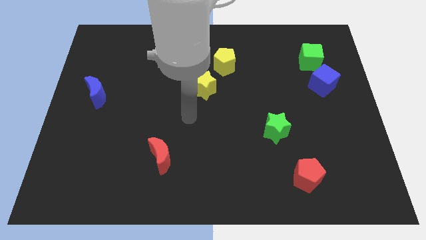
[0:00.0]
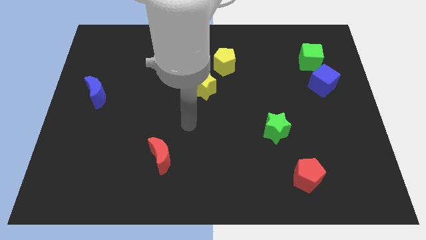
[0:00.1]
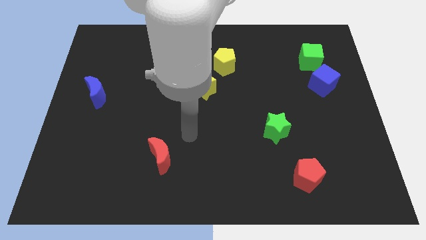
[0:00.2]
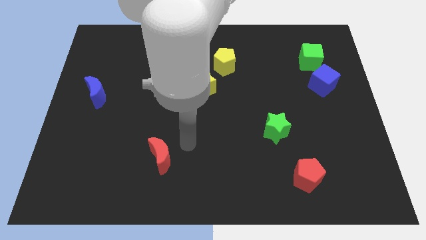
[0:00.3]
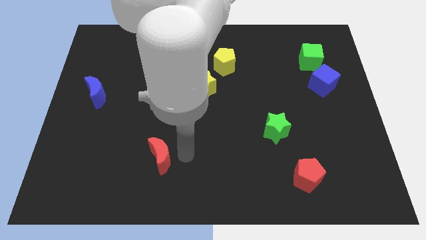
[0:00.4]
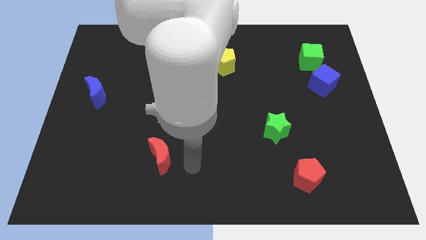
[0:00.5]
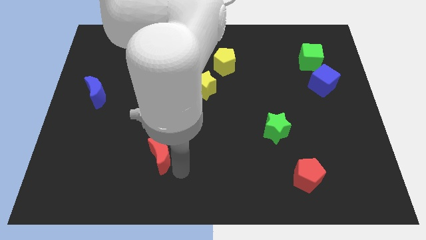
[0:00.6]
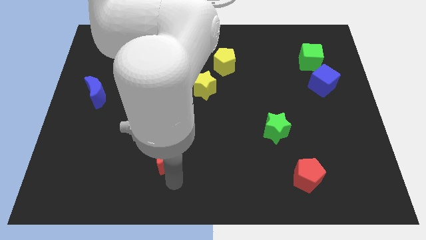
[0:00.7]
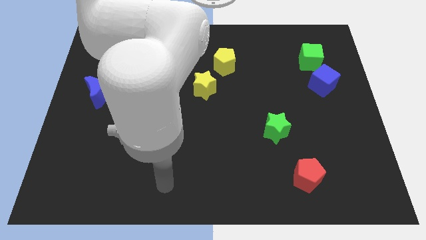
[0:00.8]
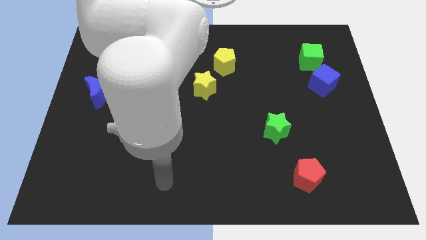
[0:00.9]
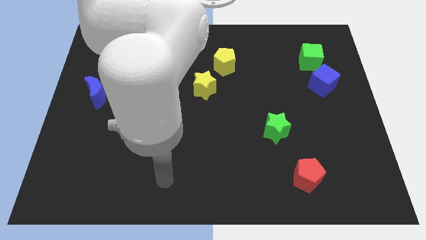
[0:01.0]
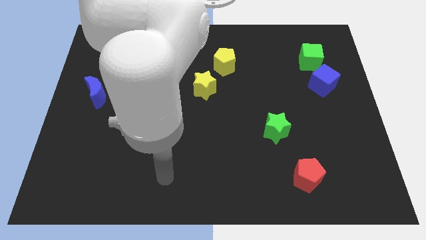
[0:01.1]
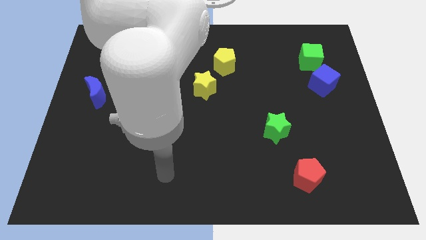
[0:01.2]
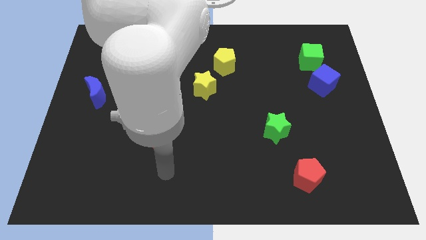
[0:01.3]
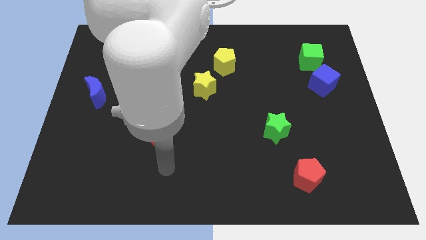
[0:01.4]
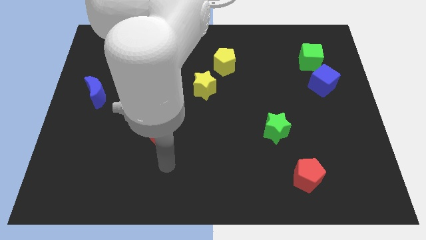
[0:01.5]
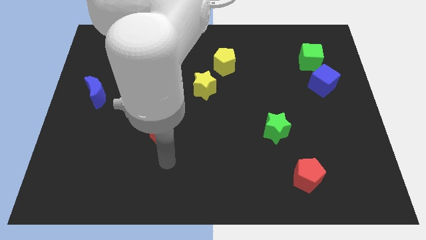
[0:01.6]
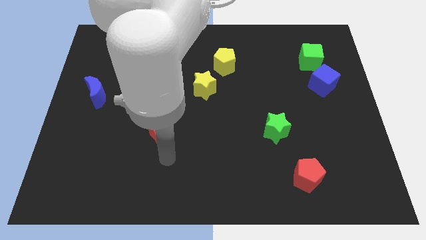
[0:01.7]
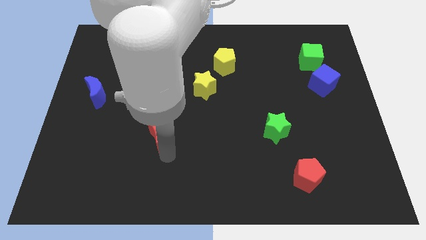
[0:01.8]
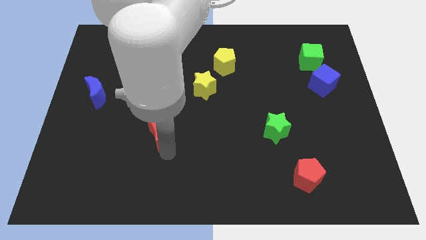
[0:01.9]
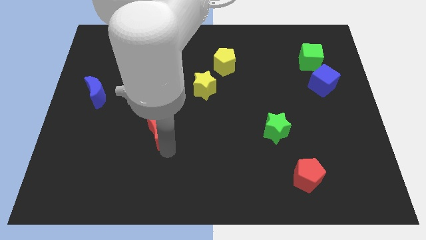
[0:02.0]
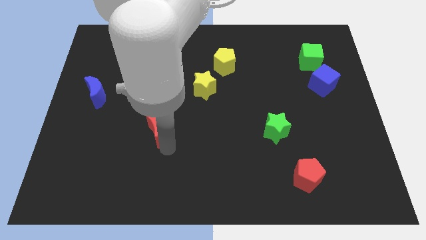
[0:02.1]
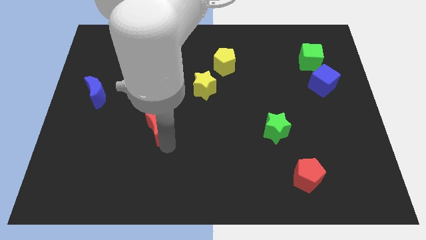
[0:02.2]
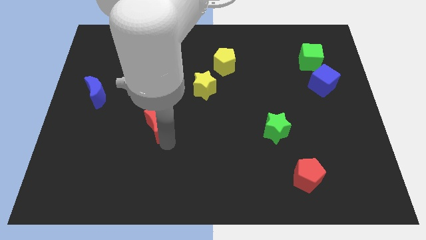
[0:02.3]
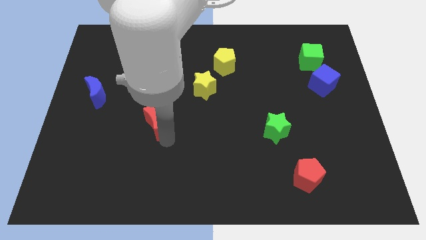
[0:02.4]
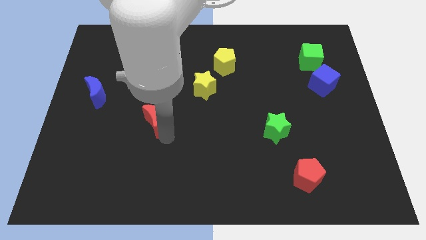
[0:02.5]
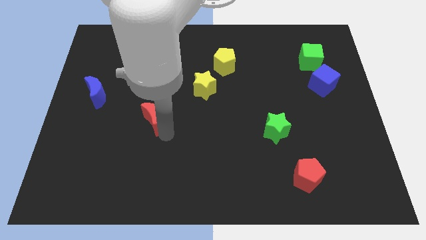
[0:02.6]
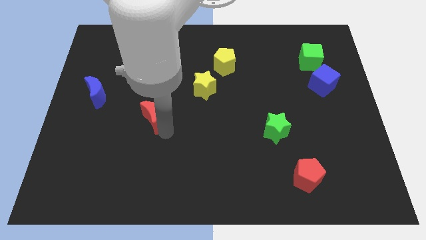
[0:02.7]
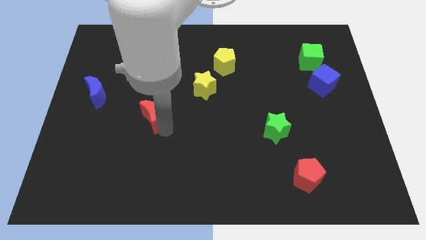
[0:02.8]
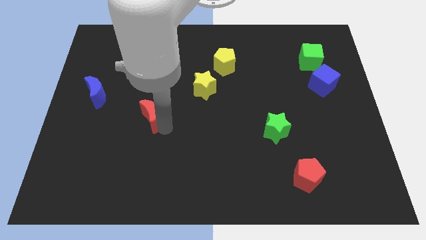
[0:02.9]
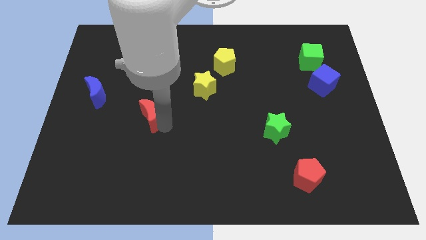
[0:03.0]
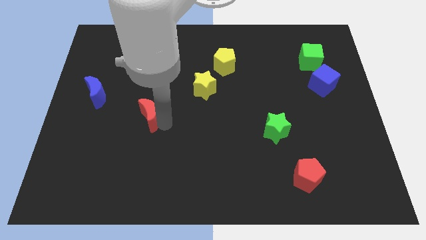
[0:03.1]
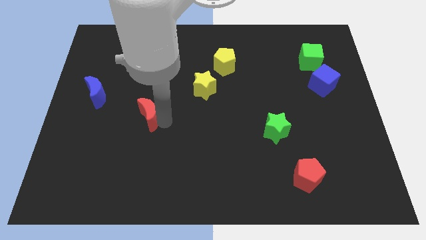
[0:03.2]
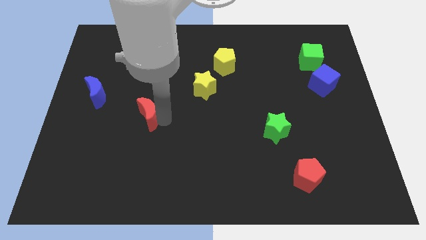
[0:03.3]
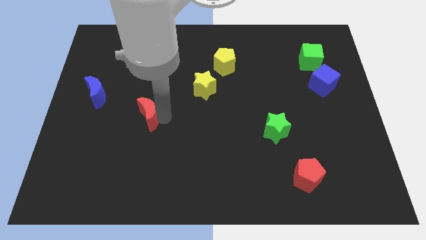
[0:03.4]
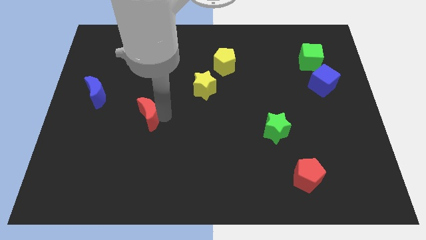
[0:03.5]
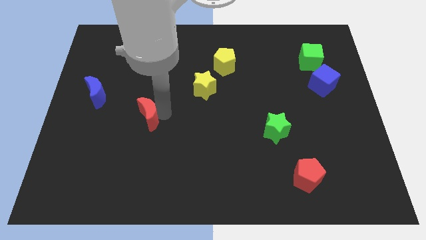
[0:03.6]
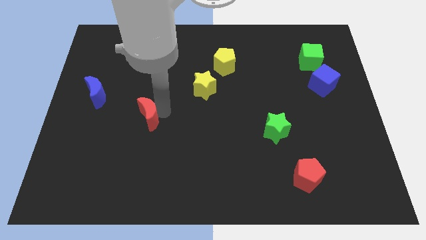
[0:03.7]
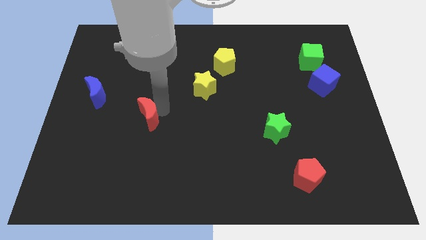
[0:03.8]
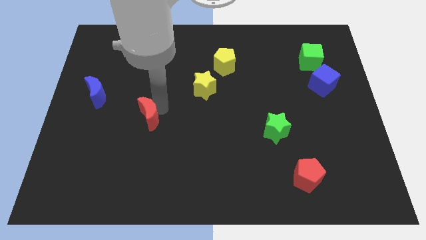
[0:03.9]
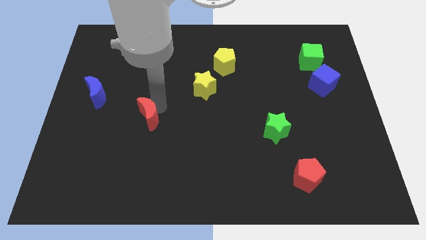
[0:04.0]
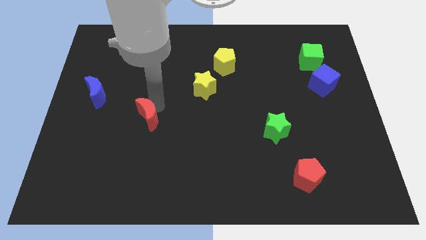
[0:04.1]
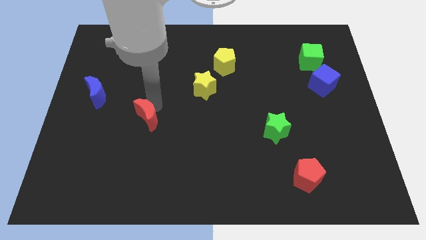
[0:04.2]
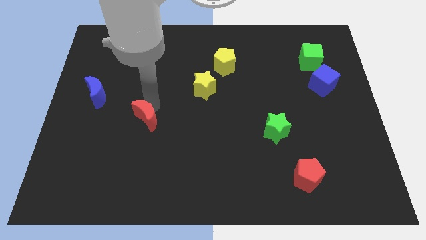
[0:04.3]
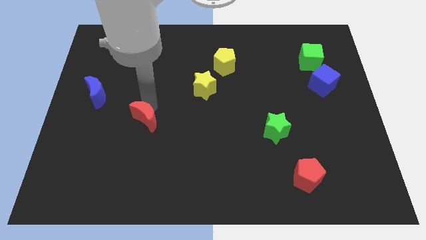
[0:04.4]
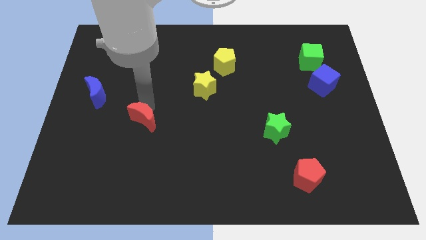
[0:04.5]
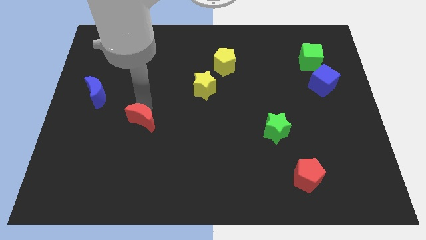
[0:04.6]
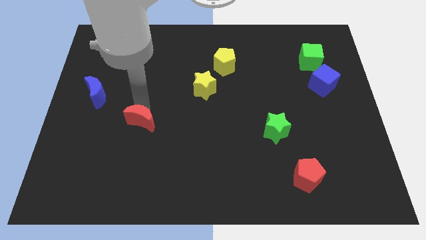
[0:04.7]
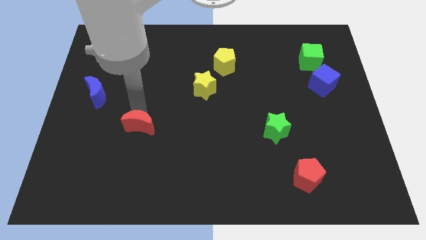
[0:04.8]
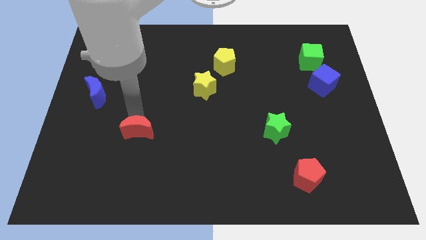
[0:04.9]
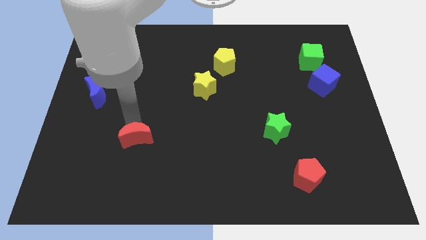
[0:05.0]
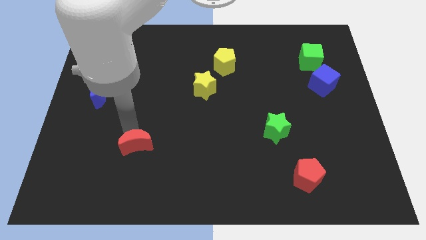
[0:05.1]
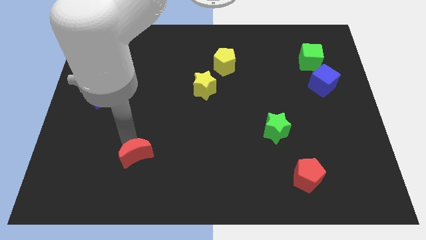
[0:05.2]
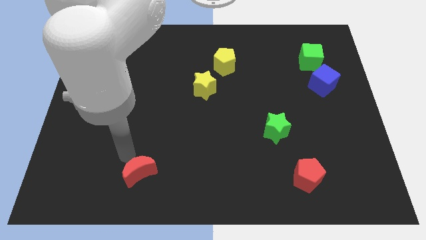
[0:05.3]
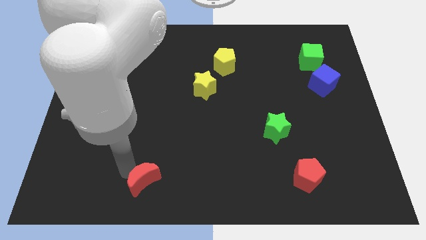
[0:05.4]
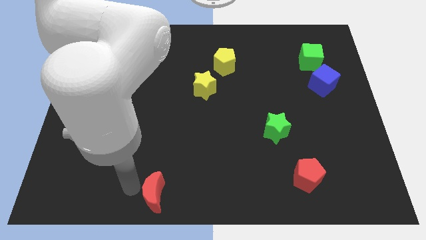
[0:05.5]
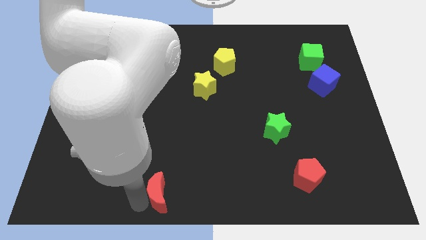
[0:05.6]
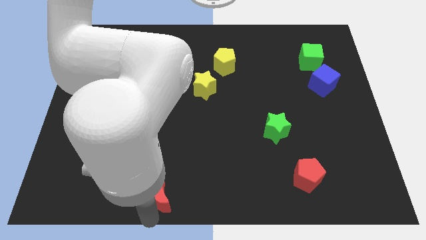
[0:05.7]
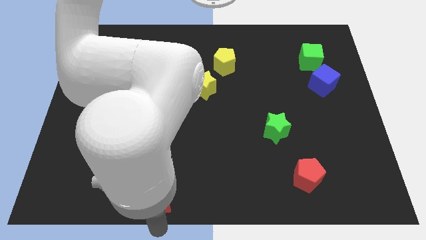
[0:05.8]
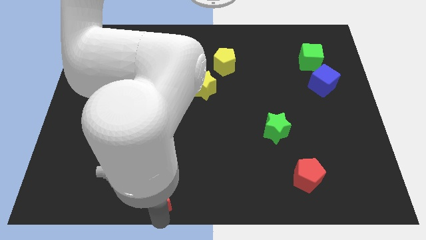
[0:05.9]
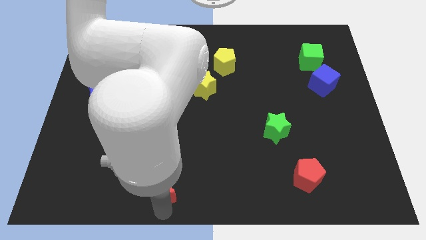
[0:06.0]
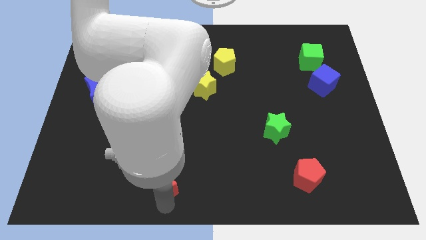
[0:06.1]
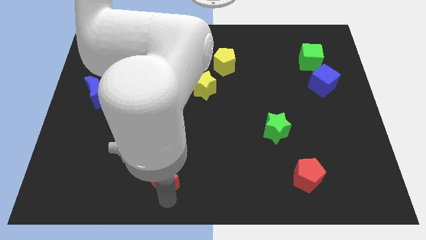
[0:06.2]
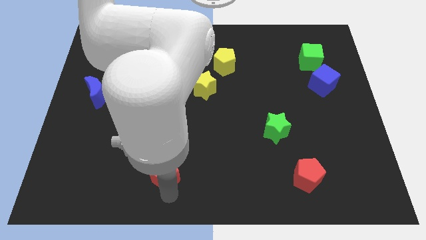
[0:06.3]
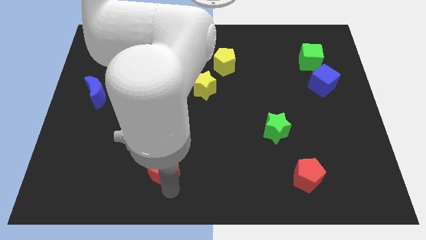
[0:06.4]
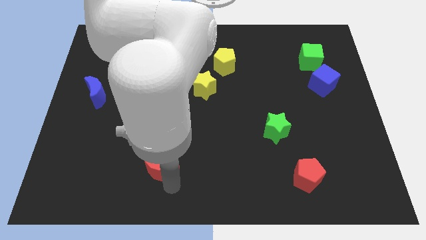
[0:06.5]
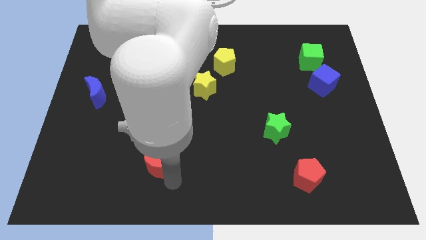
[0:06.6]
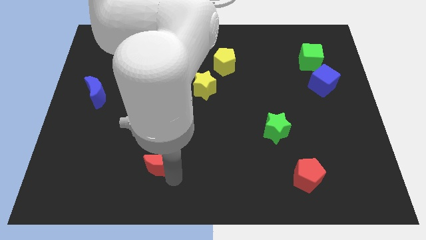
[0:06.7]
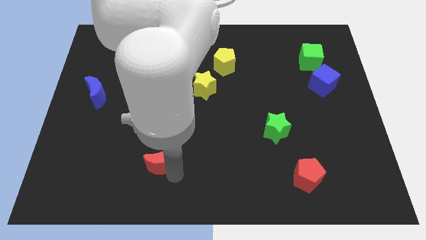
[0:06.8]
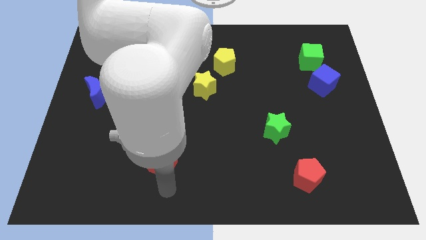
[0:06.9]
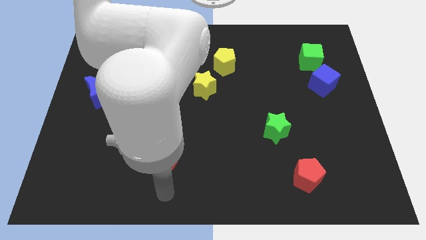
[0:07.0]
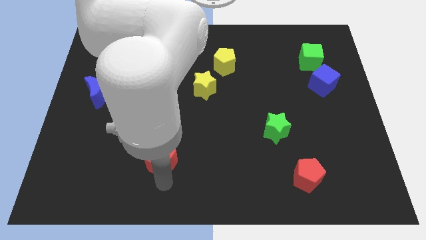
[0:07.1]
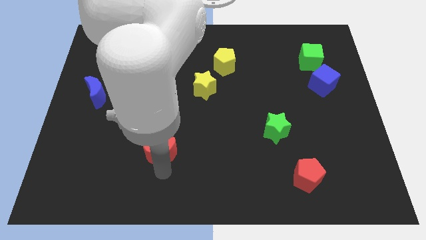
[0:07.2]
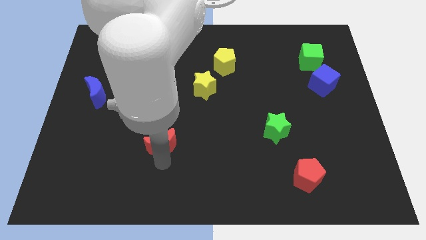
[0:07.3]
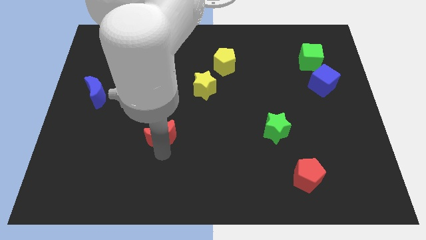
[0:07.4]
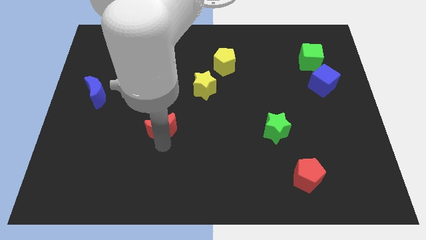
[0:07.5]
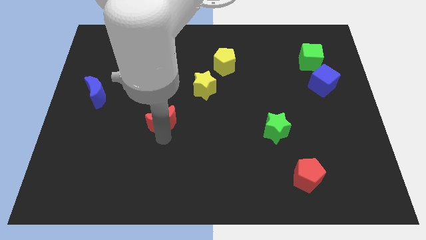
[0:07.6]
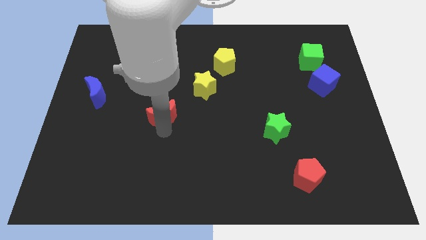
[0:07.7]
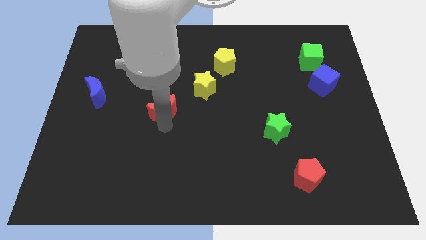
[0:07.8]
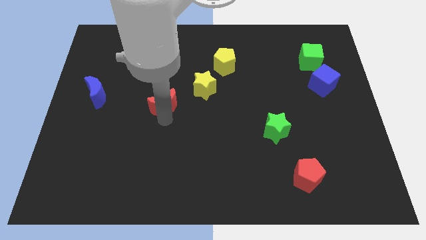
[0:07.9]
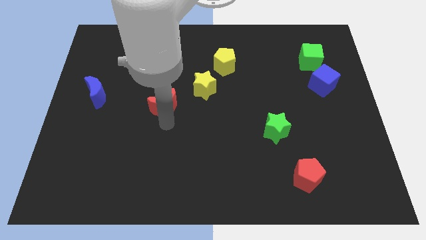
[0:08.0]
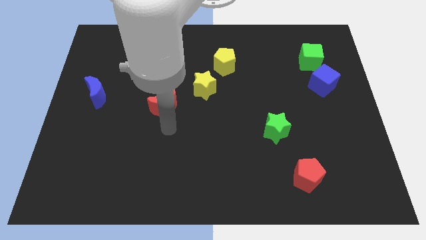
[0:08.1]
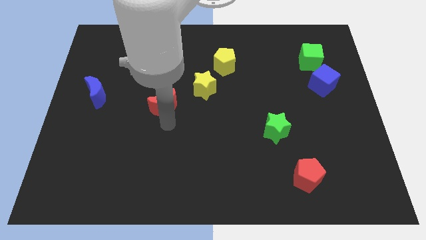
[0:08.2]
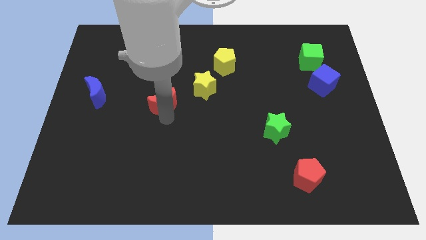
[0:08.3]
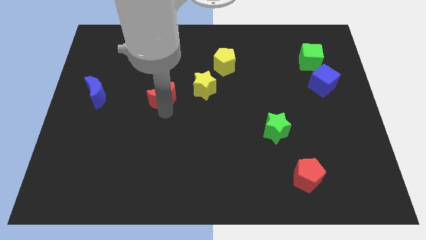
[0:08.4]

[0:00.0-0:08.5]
slide the red moon left of the yellow star
